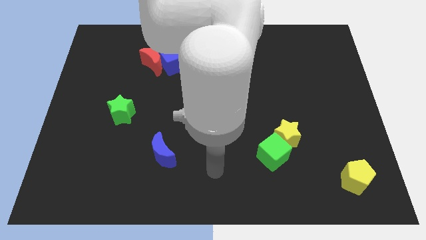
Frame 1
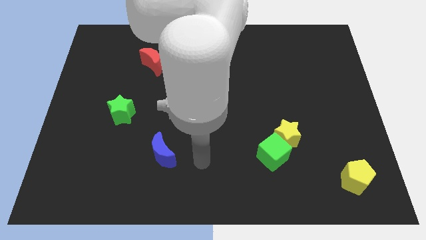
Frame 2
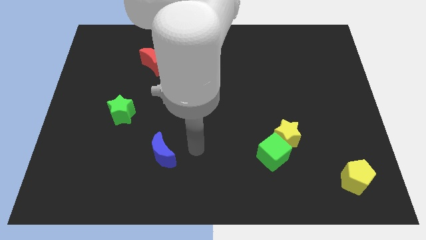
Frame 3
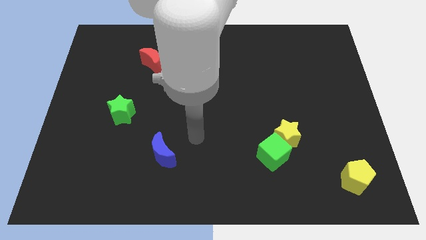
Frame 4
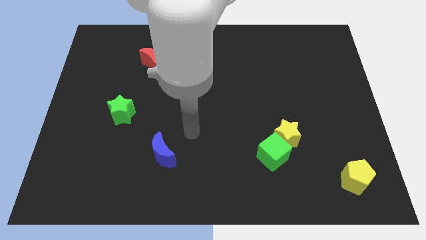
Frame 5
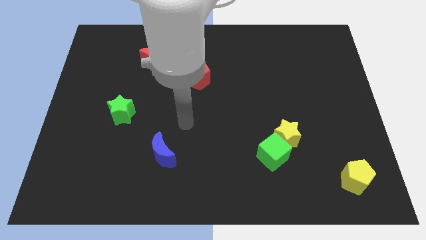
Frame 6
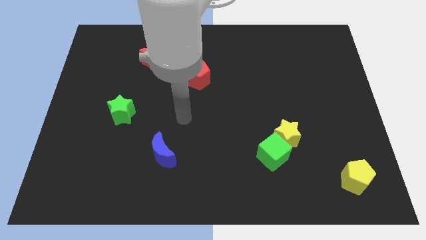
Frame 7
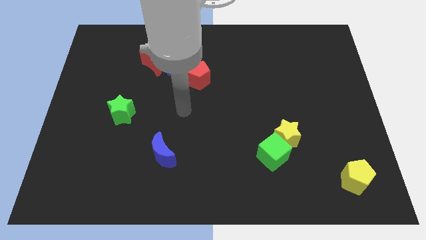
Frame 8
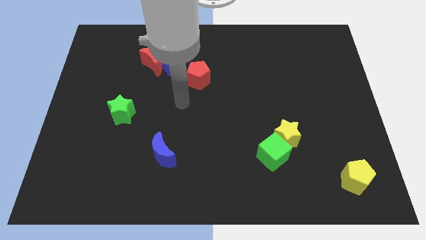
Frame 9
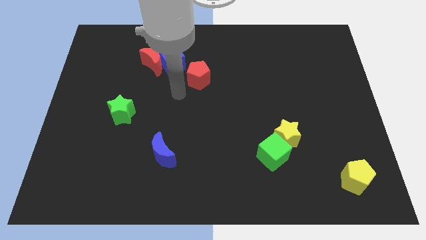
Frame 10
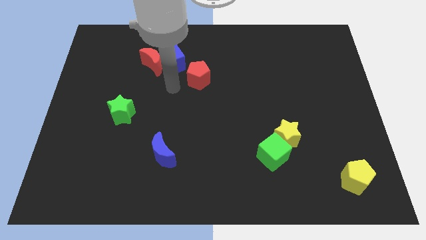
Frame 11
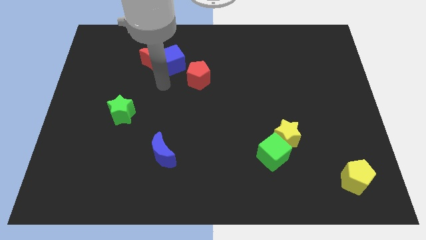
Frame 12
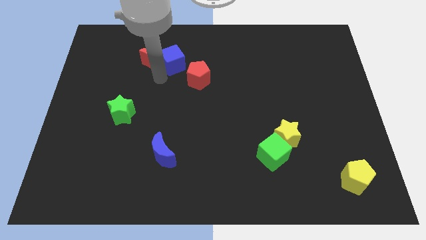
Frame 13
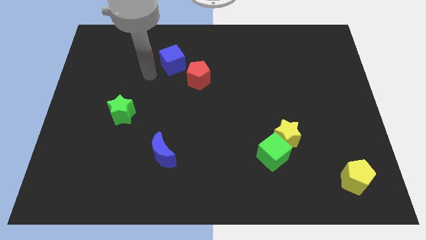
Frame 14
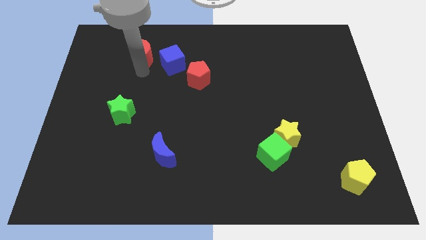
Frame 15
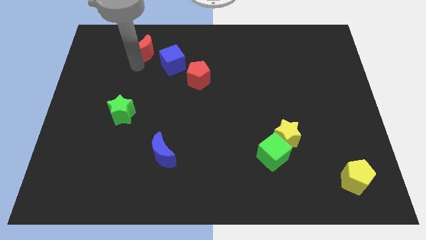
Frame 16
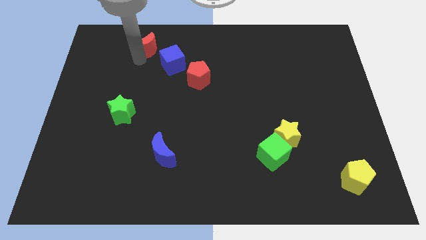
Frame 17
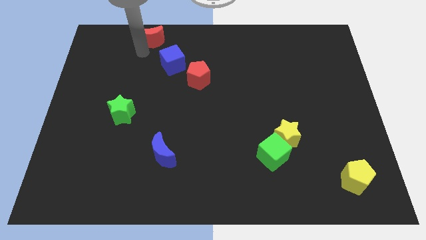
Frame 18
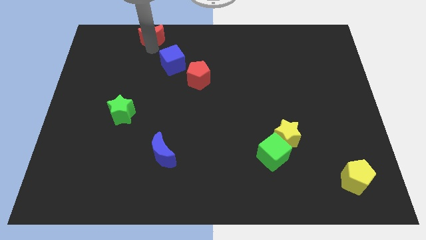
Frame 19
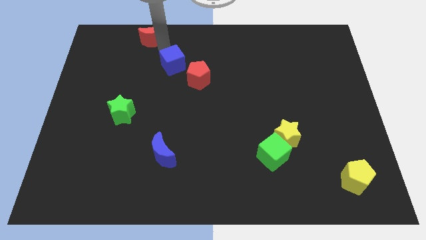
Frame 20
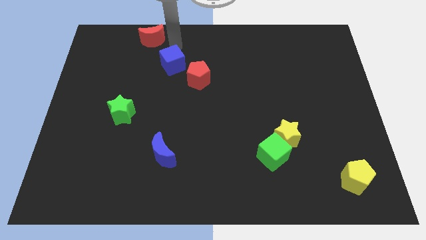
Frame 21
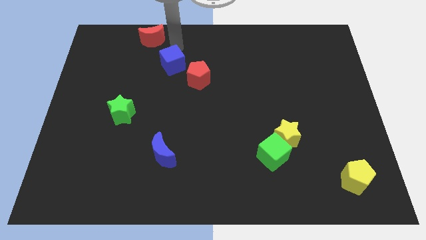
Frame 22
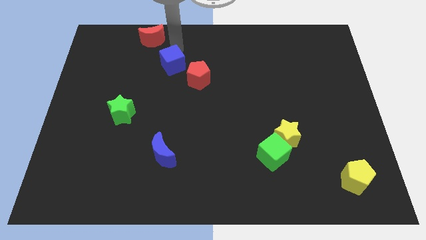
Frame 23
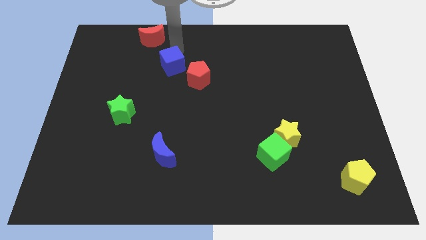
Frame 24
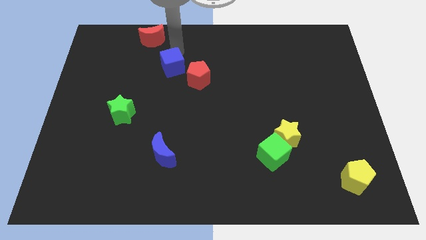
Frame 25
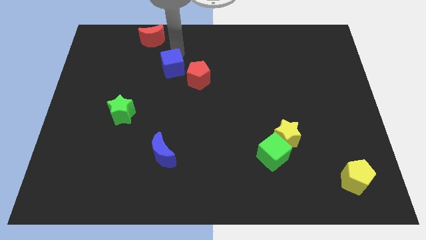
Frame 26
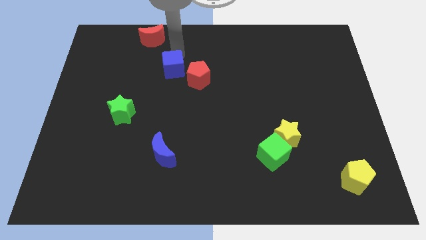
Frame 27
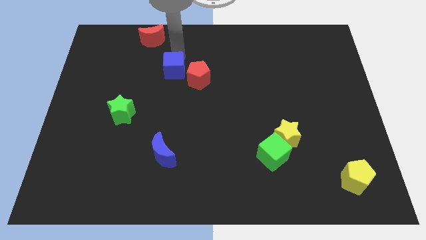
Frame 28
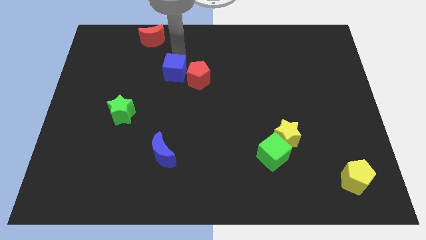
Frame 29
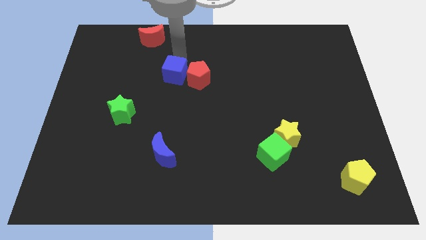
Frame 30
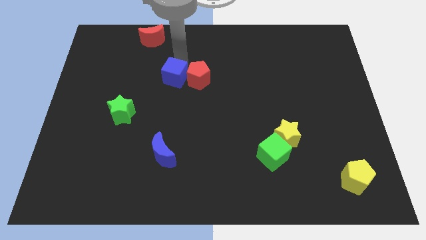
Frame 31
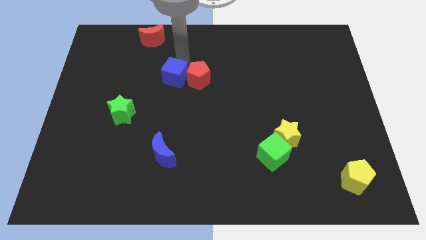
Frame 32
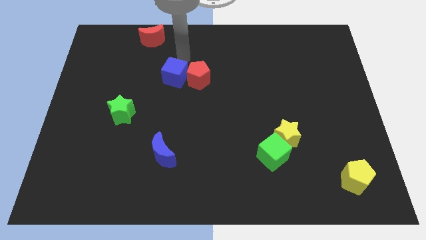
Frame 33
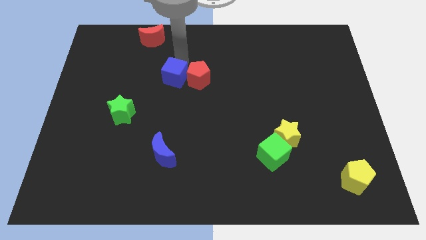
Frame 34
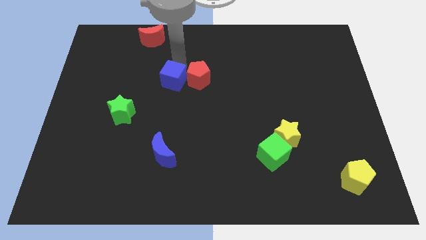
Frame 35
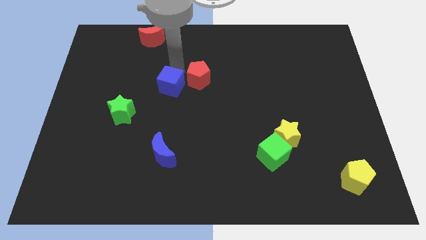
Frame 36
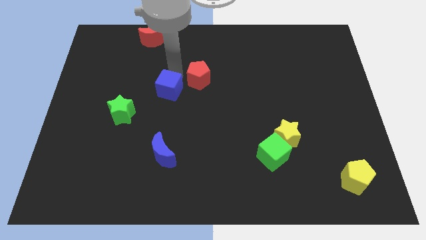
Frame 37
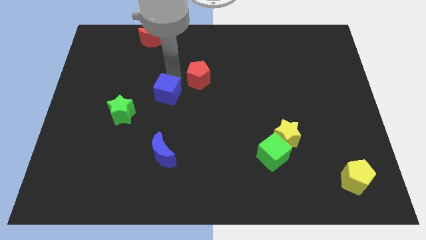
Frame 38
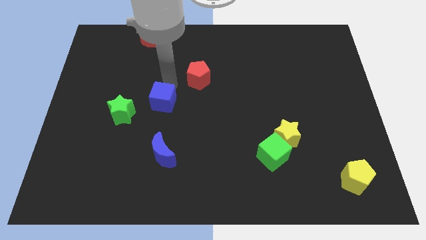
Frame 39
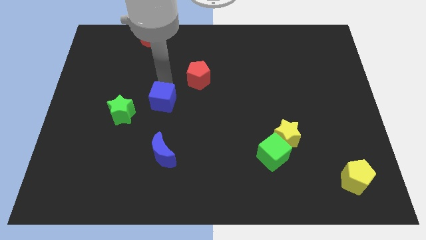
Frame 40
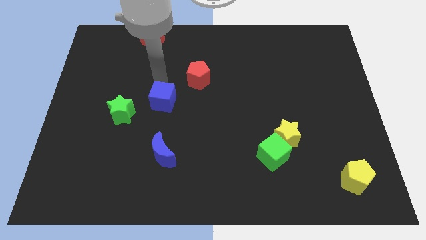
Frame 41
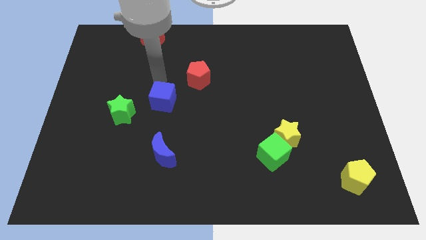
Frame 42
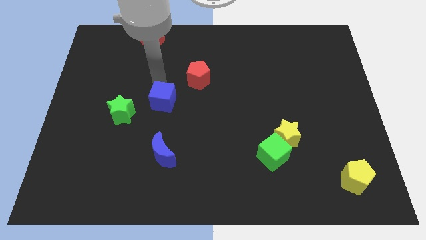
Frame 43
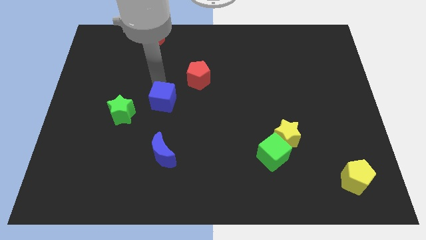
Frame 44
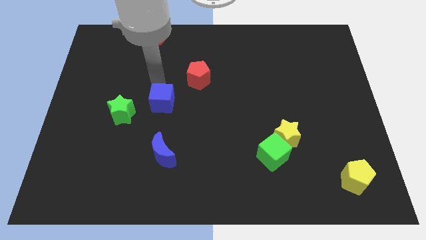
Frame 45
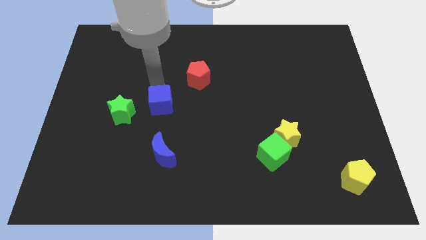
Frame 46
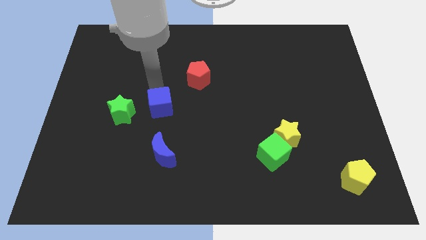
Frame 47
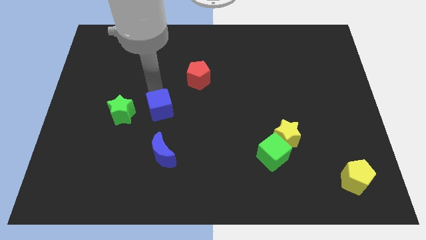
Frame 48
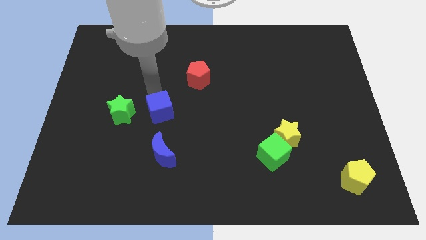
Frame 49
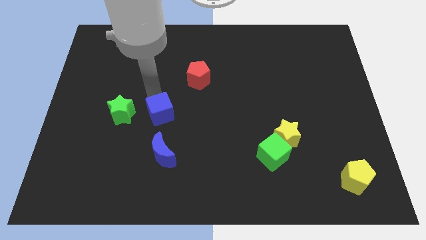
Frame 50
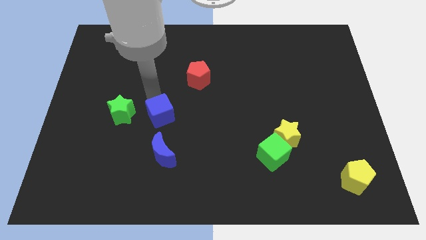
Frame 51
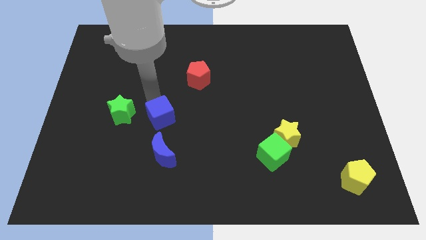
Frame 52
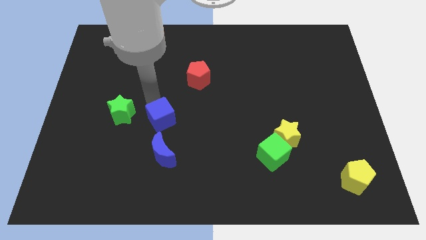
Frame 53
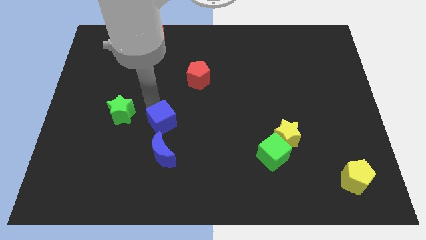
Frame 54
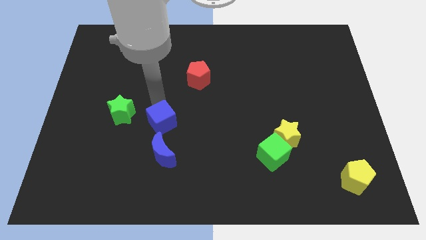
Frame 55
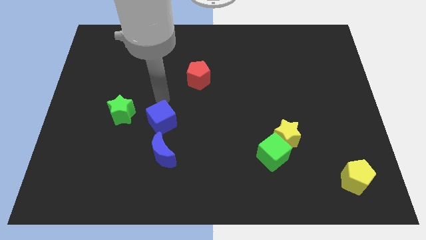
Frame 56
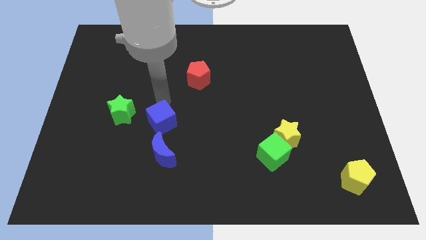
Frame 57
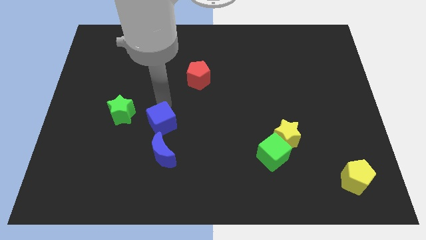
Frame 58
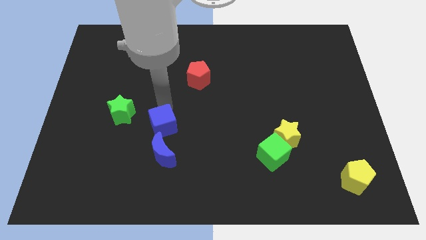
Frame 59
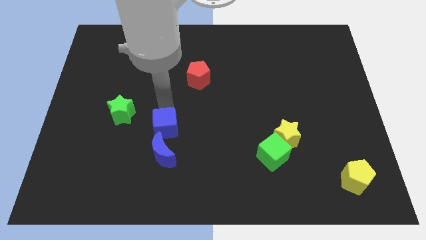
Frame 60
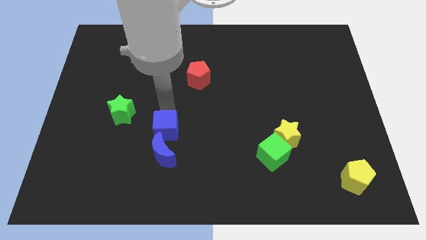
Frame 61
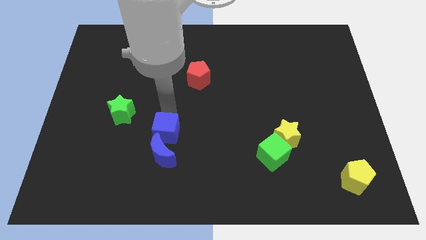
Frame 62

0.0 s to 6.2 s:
put the blue cube to the blue moon

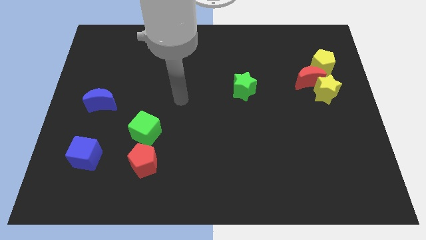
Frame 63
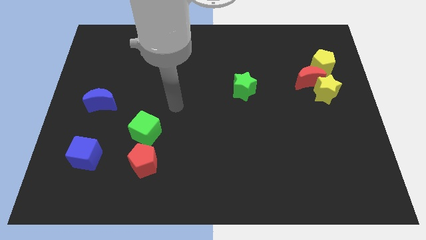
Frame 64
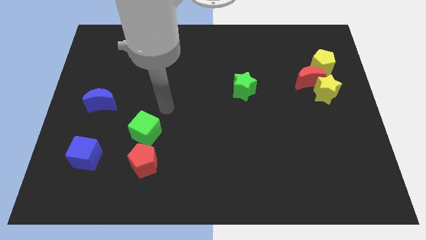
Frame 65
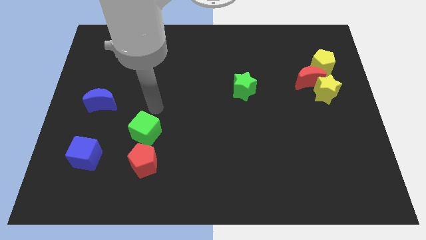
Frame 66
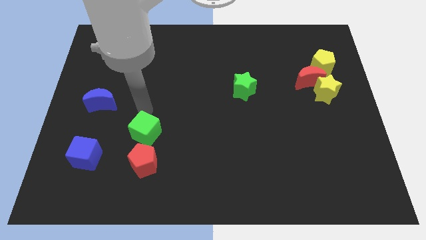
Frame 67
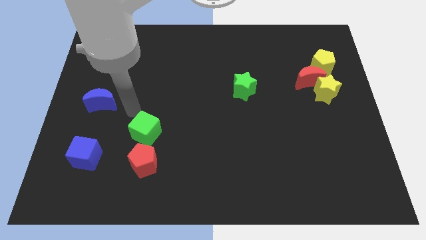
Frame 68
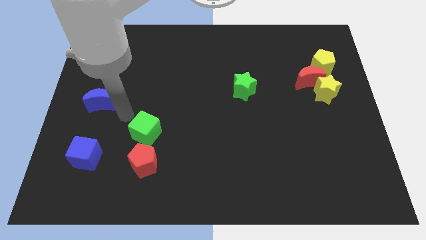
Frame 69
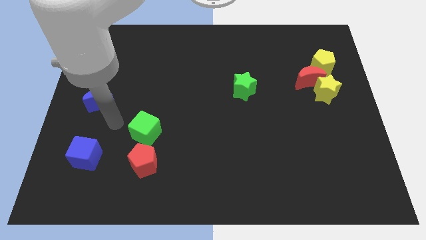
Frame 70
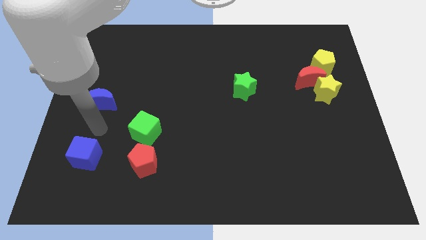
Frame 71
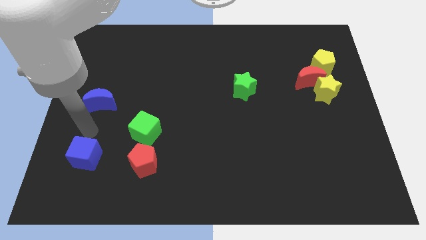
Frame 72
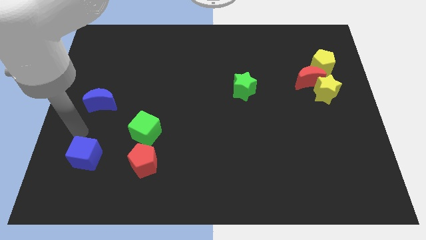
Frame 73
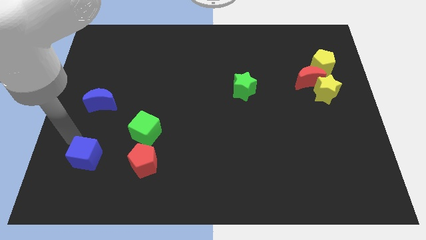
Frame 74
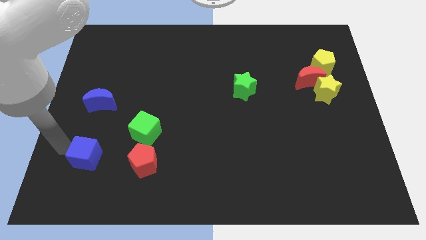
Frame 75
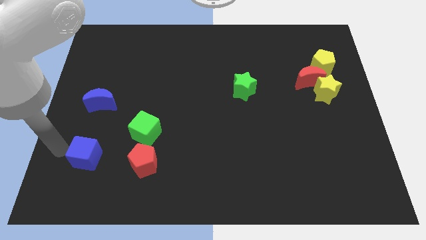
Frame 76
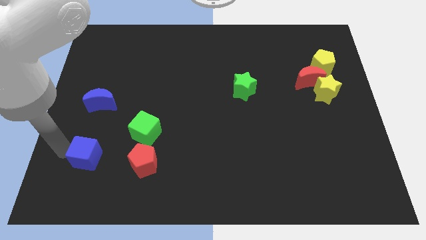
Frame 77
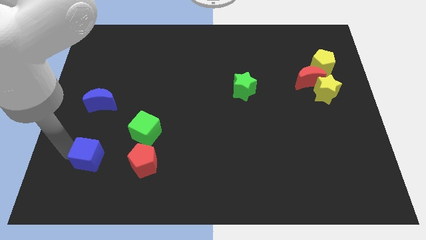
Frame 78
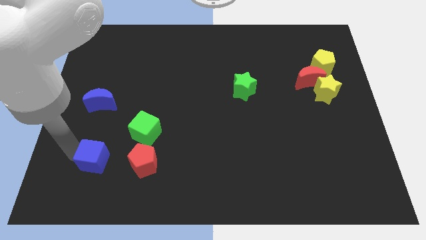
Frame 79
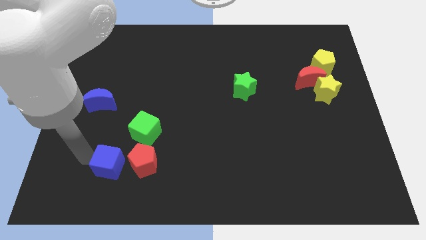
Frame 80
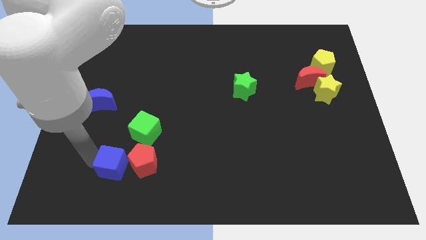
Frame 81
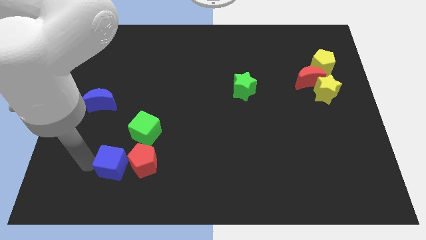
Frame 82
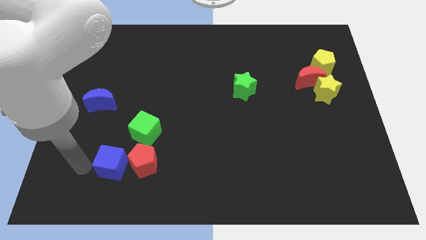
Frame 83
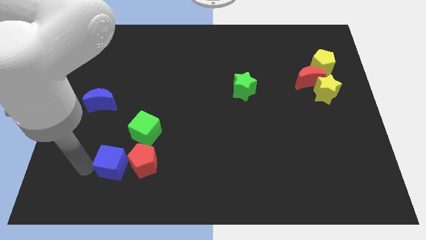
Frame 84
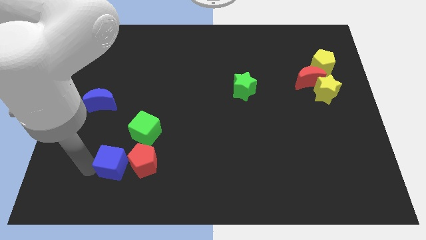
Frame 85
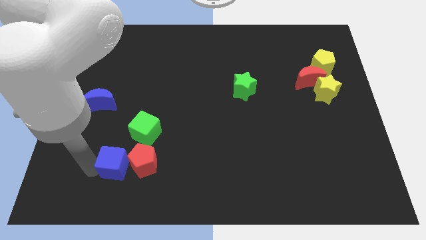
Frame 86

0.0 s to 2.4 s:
slide the blue cube next to the red pentagon
